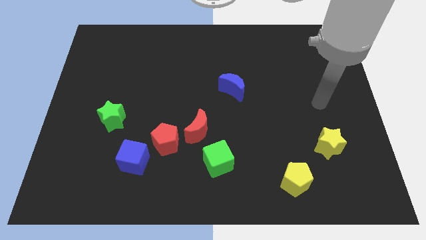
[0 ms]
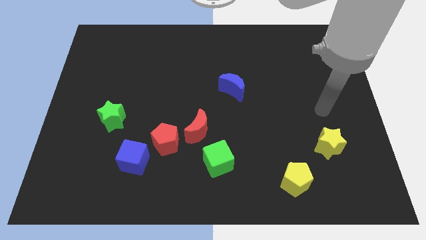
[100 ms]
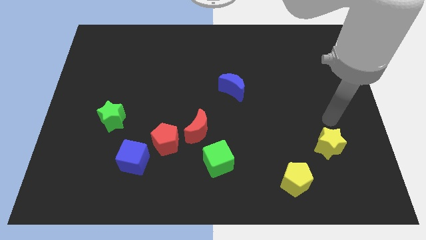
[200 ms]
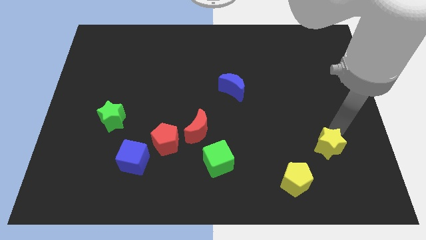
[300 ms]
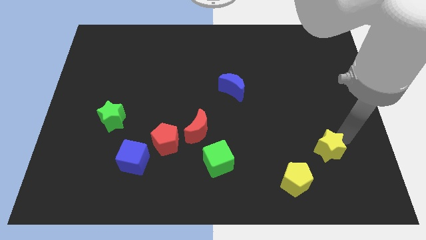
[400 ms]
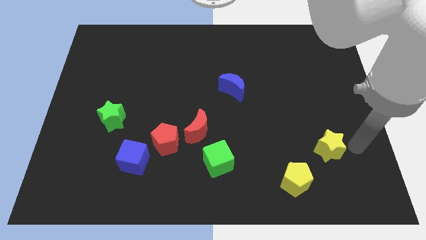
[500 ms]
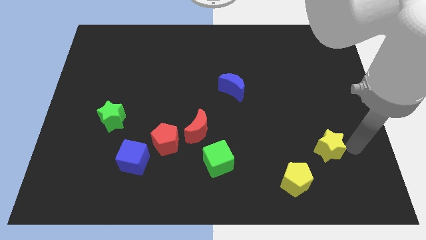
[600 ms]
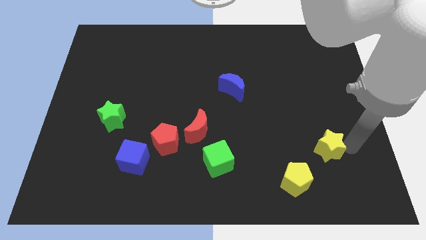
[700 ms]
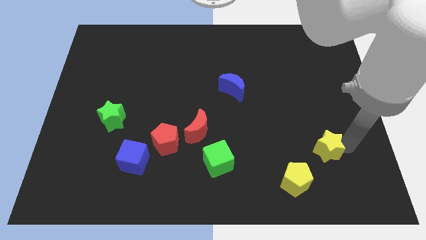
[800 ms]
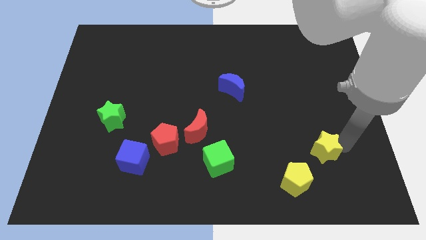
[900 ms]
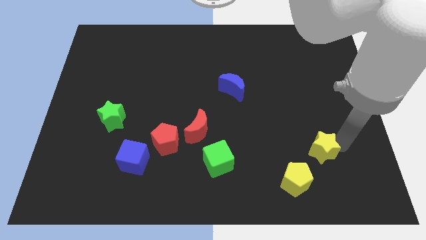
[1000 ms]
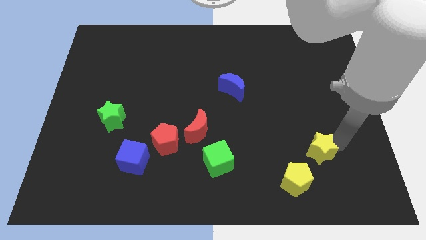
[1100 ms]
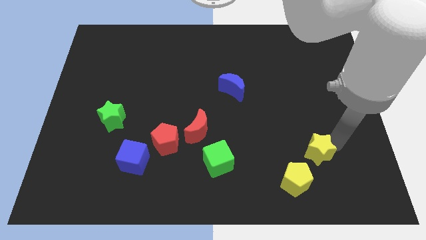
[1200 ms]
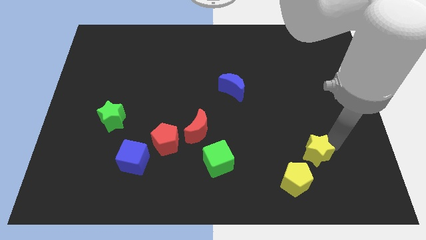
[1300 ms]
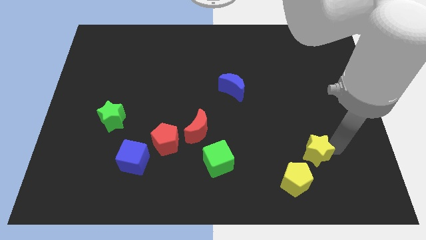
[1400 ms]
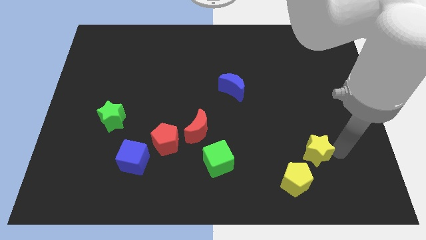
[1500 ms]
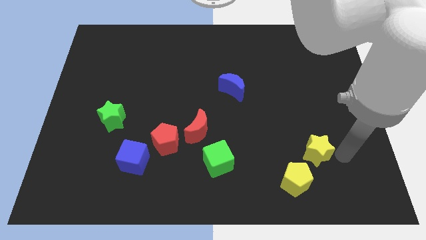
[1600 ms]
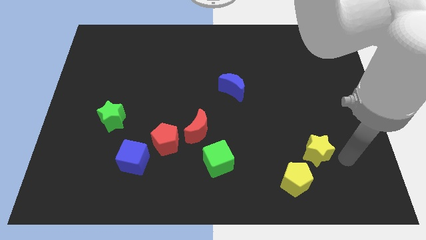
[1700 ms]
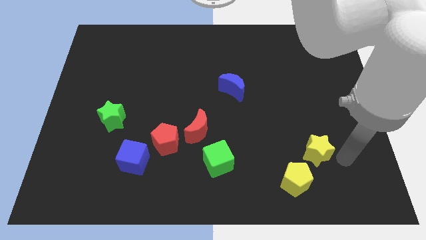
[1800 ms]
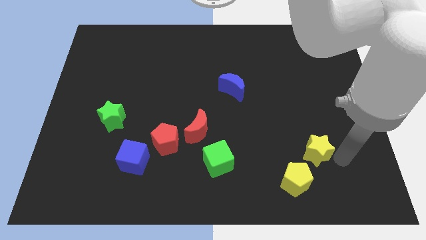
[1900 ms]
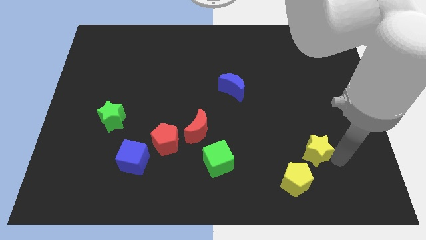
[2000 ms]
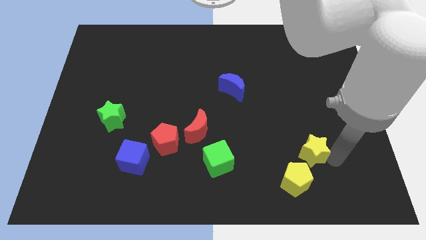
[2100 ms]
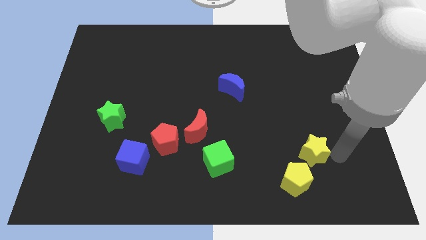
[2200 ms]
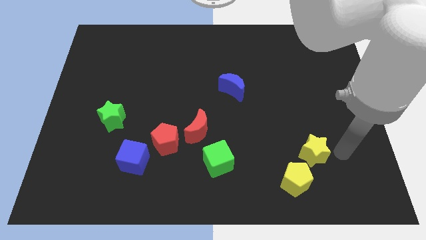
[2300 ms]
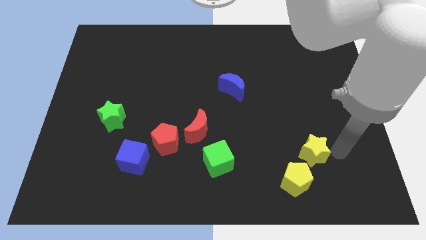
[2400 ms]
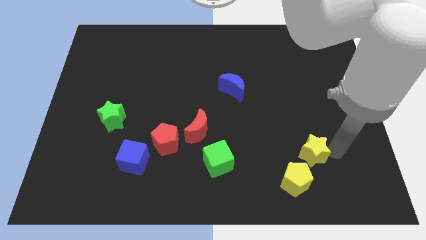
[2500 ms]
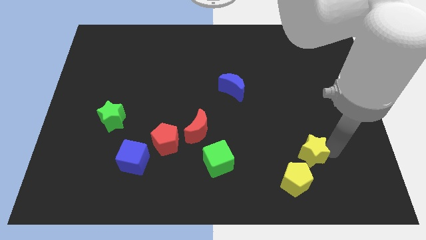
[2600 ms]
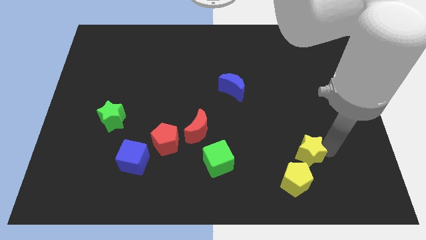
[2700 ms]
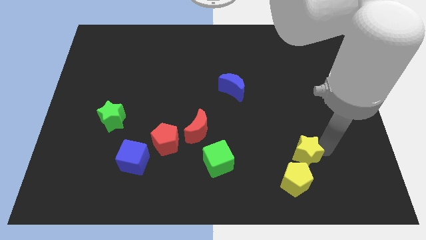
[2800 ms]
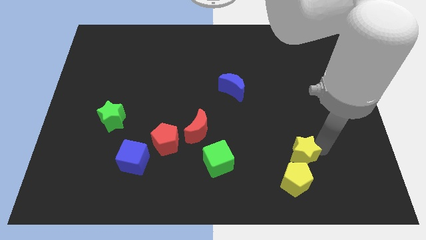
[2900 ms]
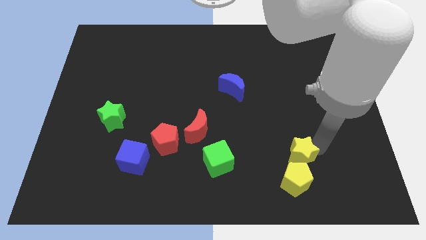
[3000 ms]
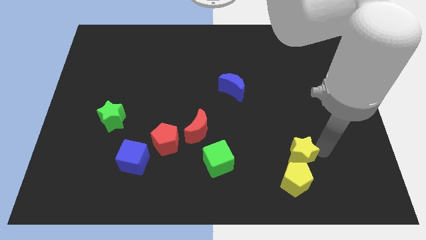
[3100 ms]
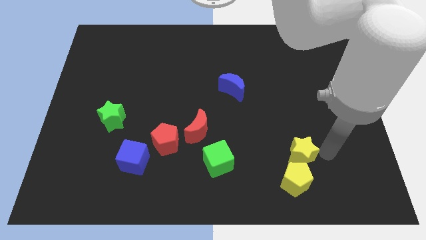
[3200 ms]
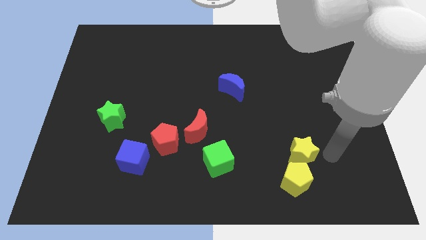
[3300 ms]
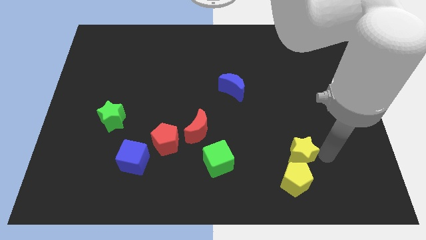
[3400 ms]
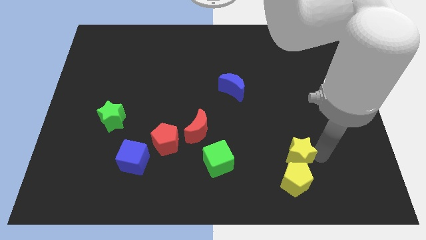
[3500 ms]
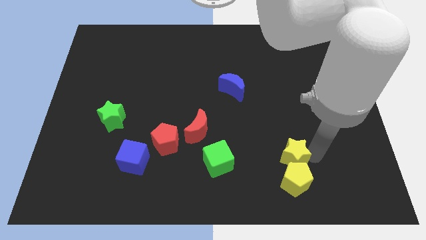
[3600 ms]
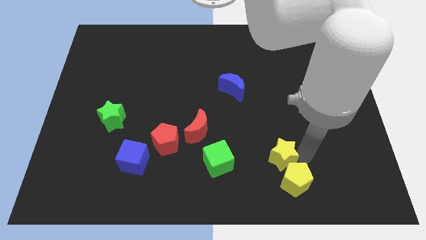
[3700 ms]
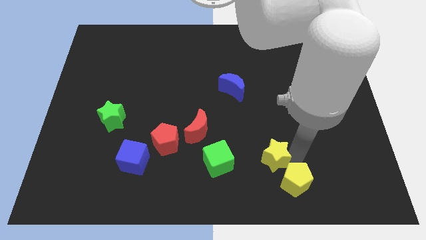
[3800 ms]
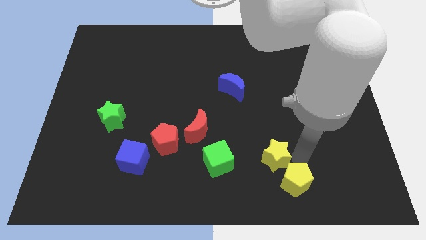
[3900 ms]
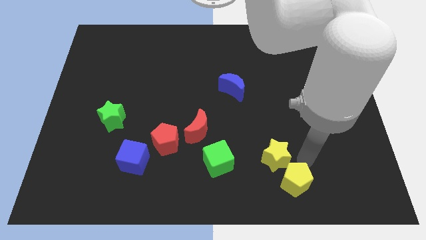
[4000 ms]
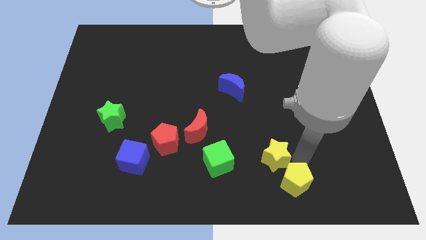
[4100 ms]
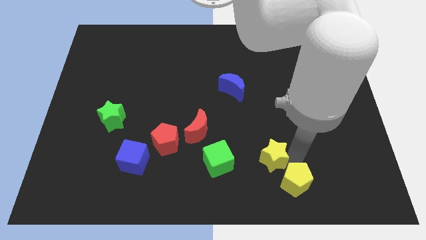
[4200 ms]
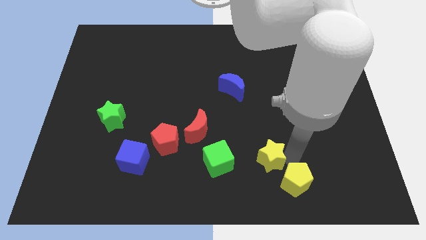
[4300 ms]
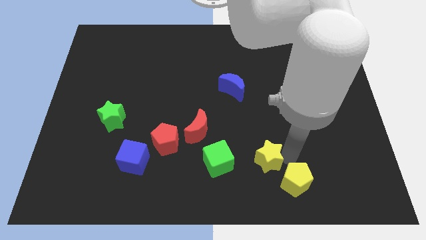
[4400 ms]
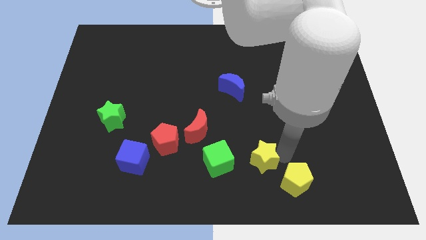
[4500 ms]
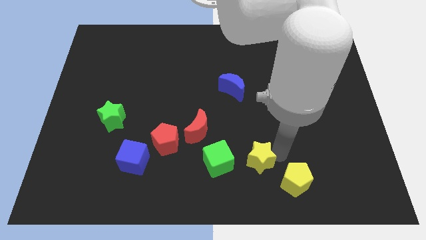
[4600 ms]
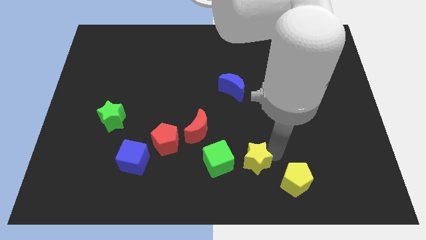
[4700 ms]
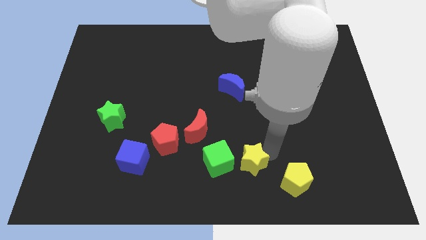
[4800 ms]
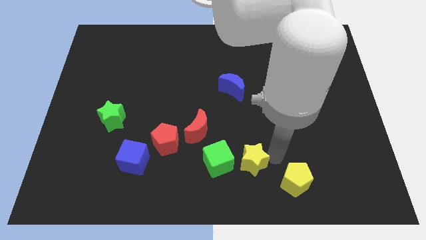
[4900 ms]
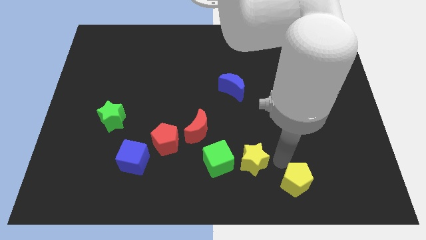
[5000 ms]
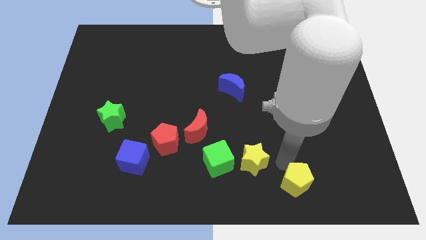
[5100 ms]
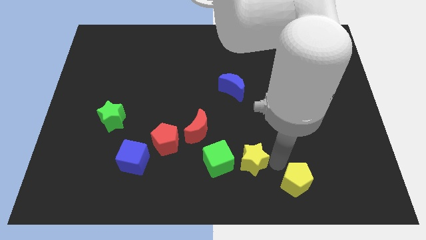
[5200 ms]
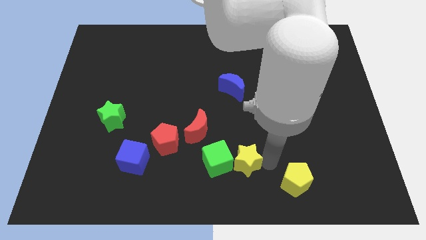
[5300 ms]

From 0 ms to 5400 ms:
move the yellow star towards the green cube

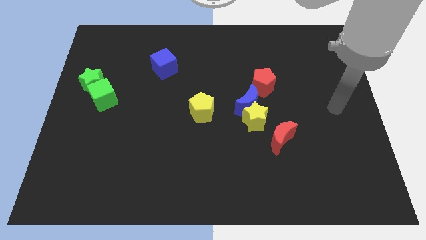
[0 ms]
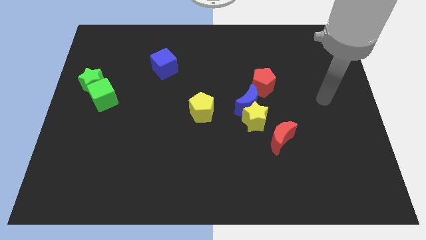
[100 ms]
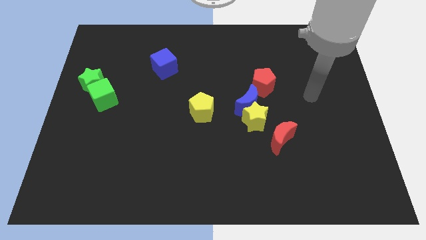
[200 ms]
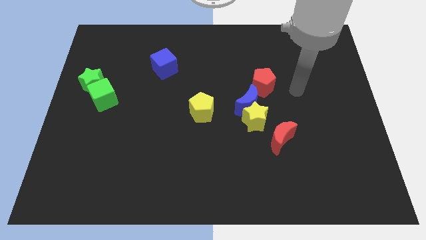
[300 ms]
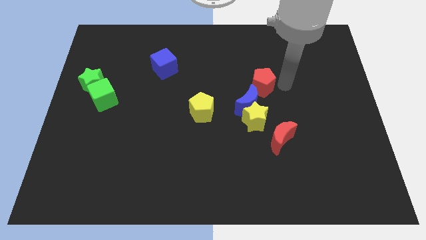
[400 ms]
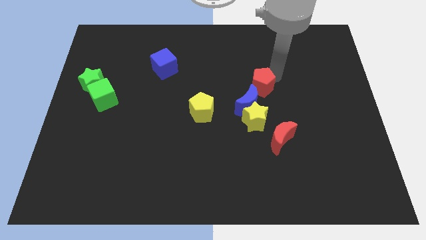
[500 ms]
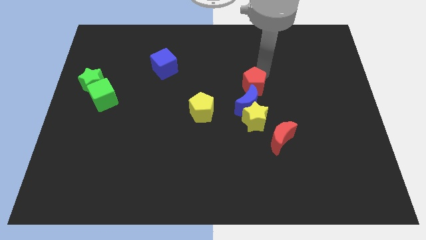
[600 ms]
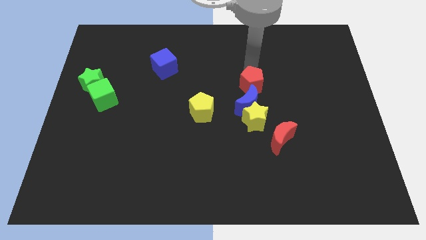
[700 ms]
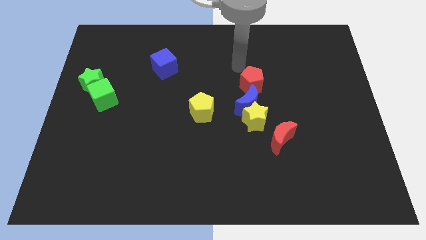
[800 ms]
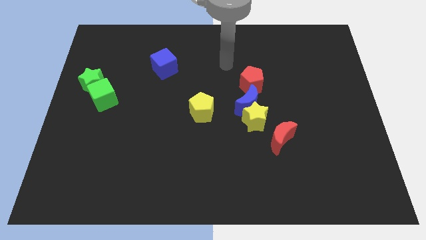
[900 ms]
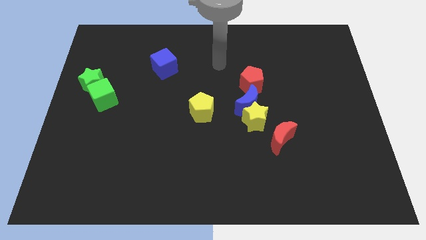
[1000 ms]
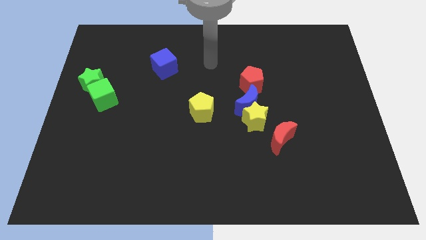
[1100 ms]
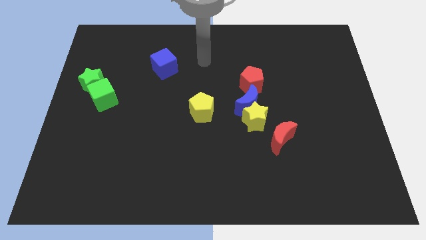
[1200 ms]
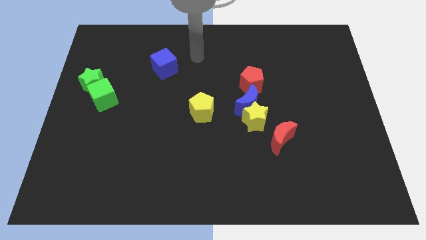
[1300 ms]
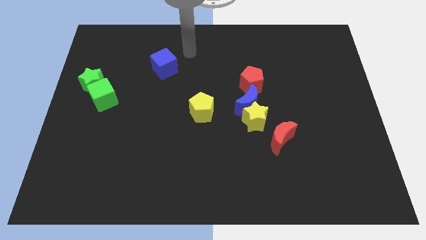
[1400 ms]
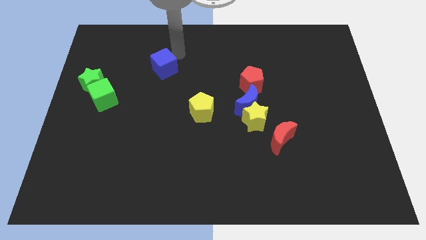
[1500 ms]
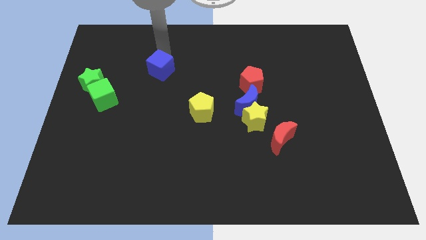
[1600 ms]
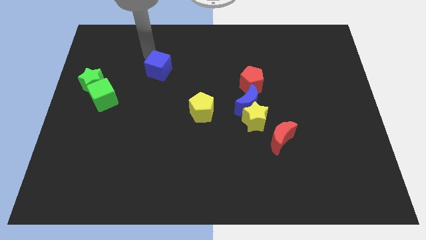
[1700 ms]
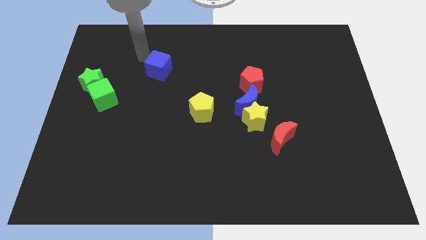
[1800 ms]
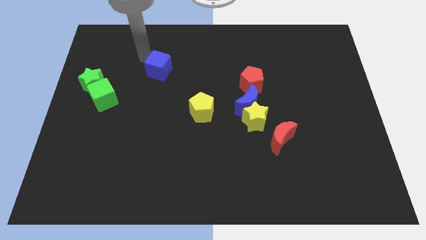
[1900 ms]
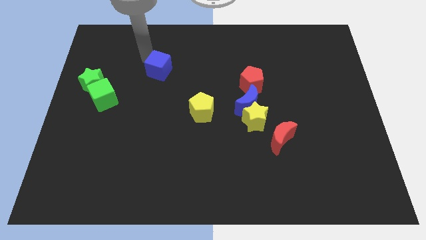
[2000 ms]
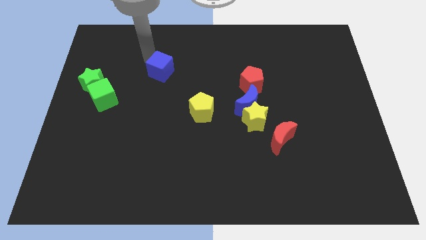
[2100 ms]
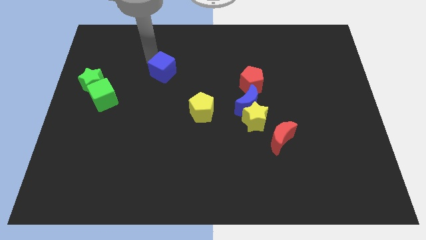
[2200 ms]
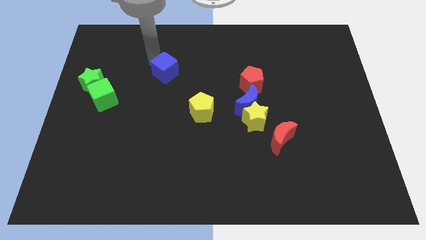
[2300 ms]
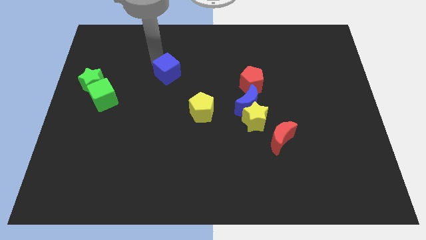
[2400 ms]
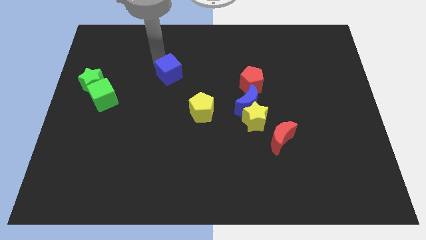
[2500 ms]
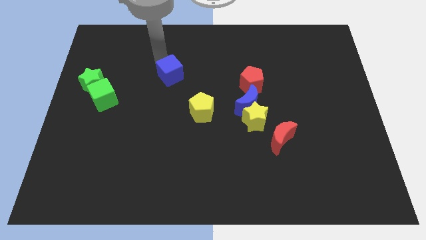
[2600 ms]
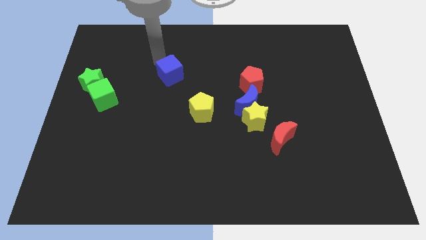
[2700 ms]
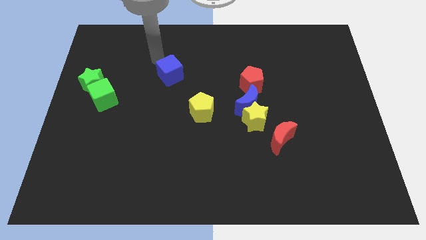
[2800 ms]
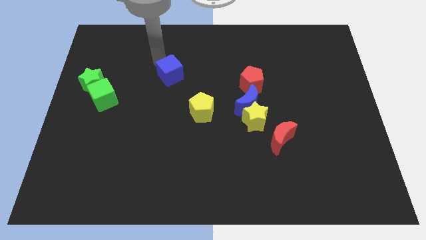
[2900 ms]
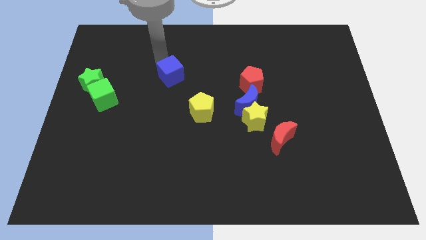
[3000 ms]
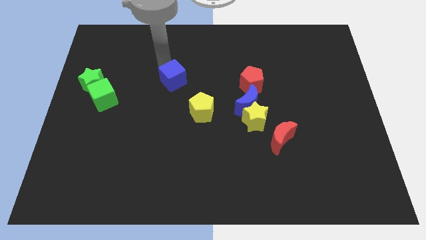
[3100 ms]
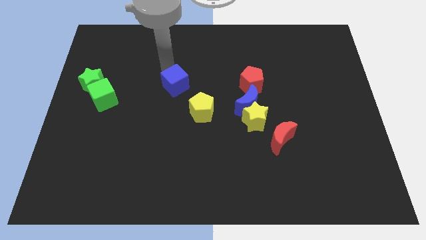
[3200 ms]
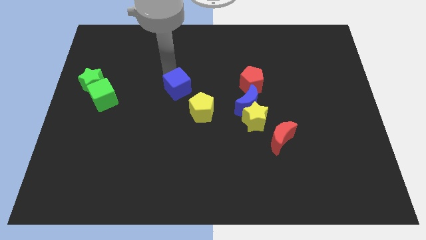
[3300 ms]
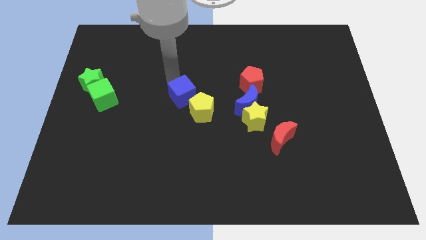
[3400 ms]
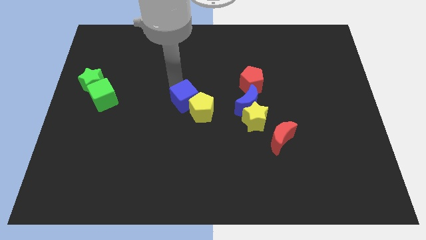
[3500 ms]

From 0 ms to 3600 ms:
push the blue cube next to the yellow pentagon
